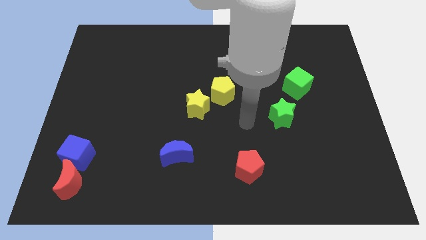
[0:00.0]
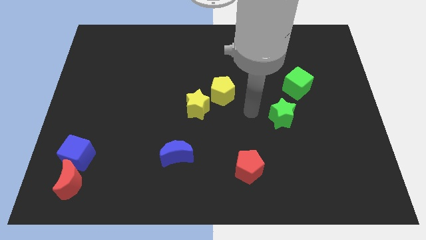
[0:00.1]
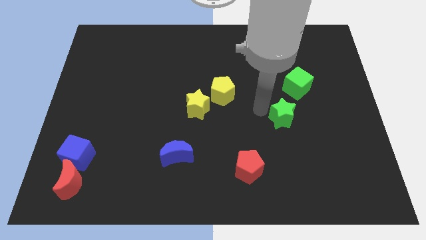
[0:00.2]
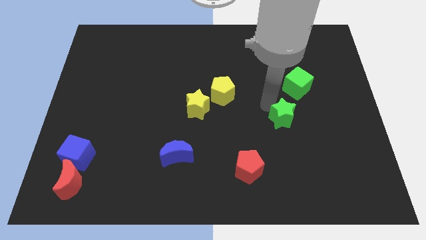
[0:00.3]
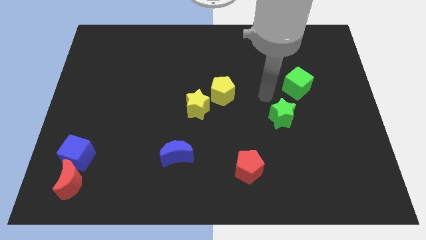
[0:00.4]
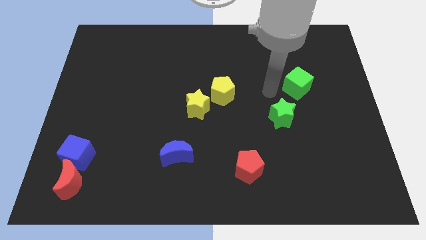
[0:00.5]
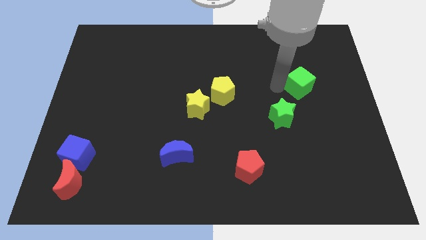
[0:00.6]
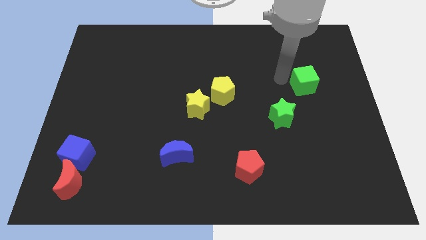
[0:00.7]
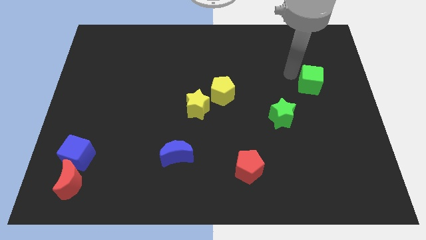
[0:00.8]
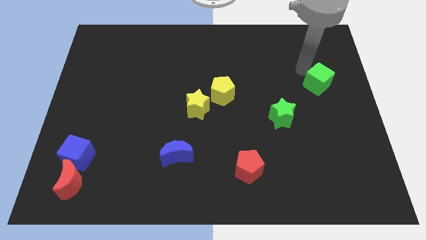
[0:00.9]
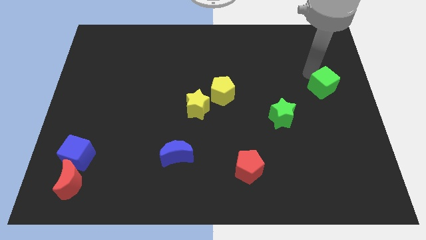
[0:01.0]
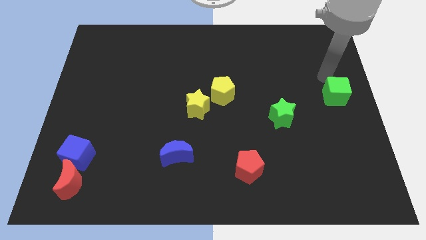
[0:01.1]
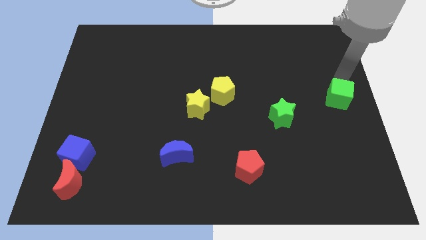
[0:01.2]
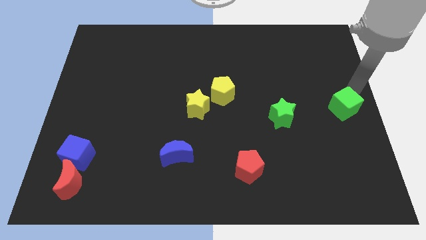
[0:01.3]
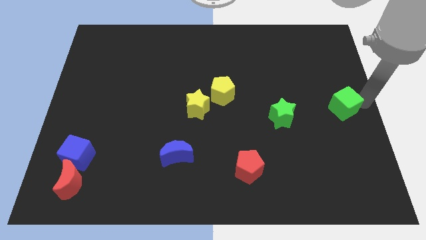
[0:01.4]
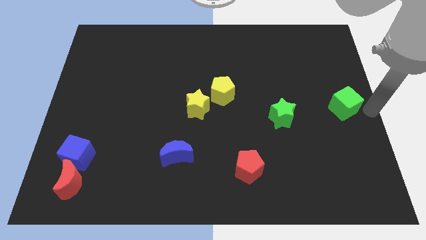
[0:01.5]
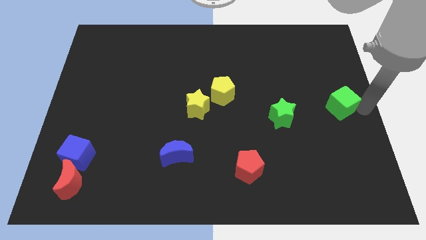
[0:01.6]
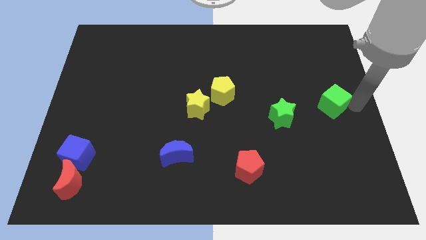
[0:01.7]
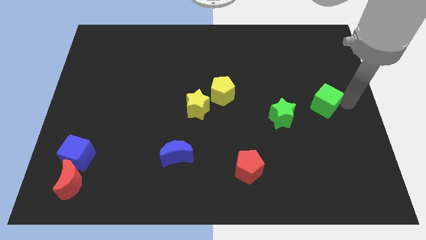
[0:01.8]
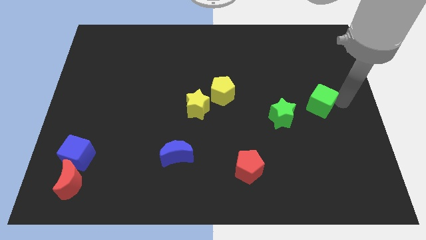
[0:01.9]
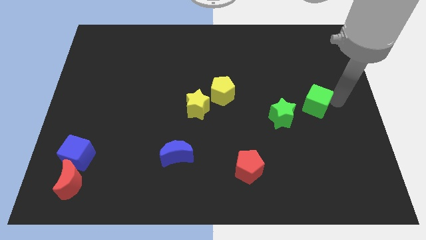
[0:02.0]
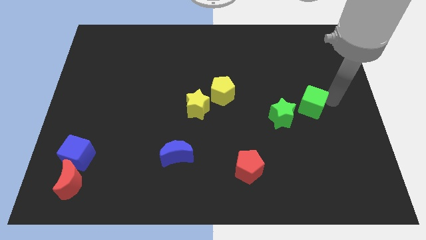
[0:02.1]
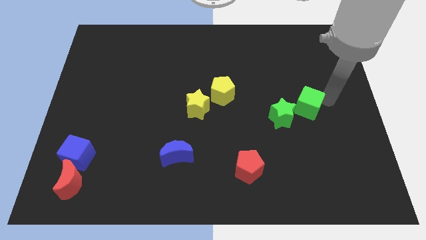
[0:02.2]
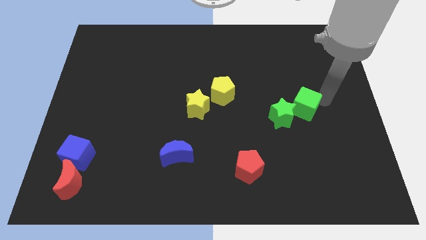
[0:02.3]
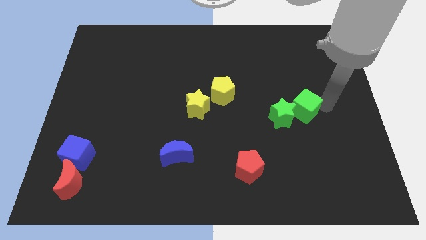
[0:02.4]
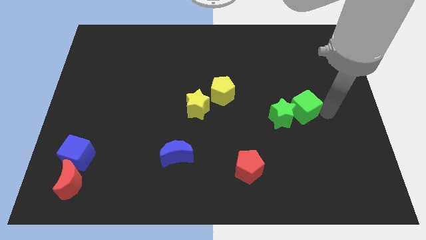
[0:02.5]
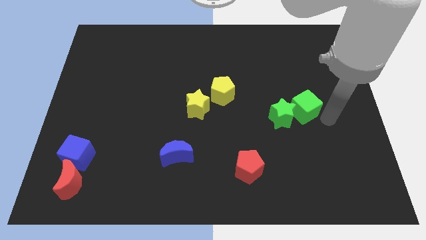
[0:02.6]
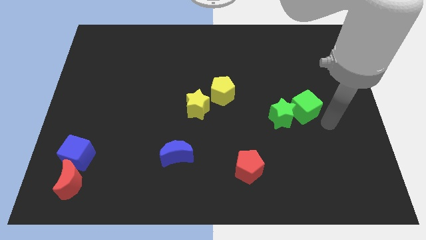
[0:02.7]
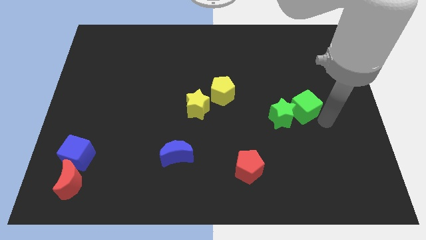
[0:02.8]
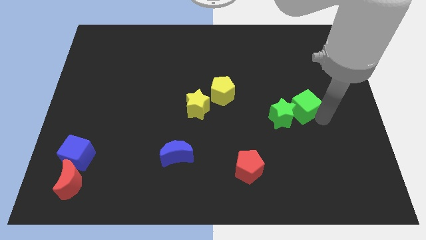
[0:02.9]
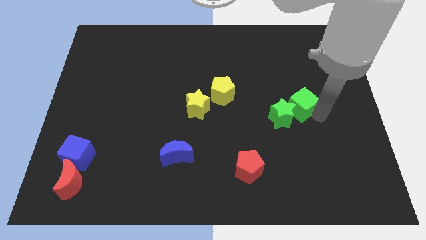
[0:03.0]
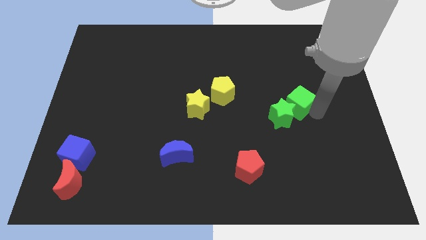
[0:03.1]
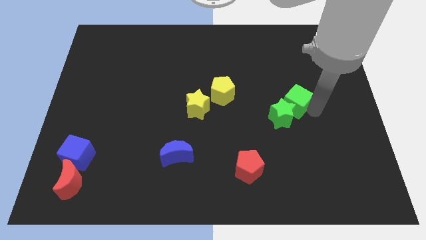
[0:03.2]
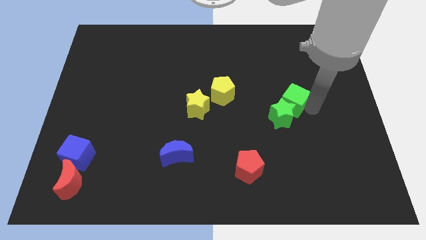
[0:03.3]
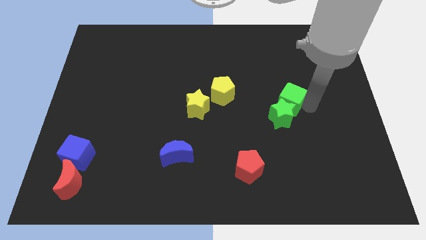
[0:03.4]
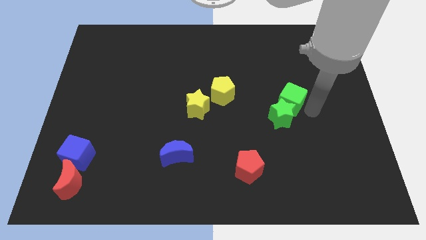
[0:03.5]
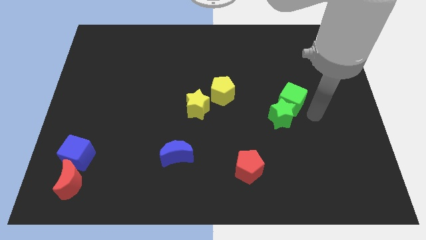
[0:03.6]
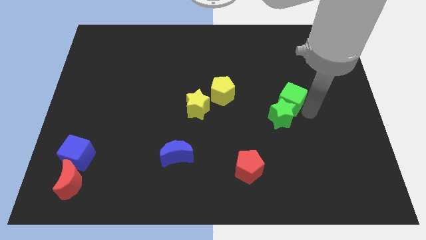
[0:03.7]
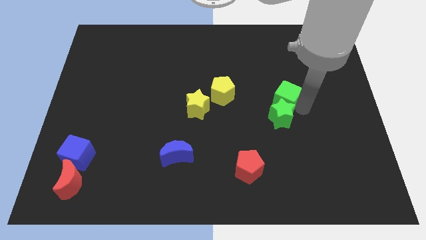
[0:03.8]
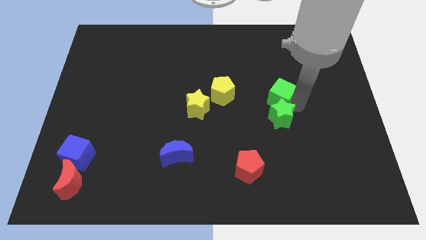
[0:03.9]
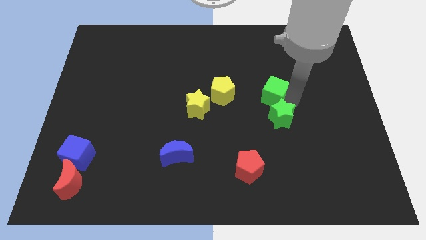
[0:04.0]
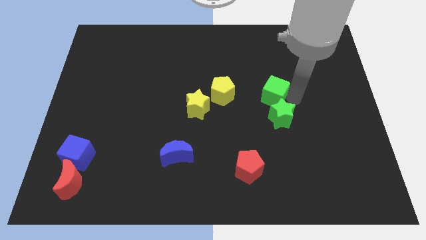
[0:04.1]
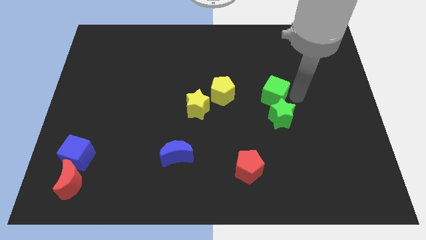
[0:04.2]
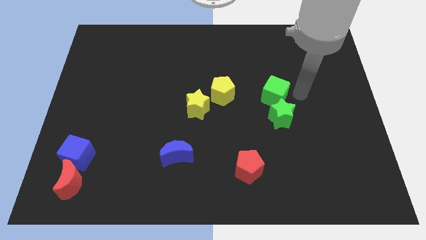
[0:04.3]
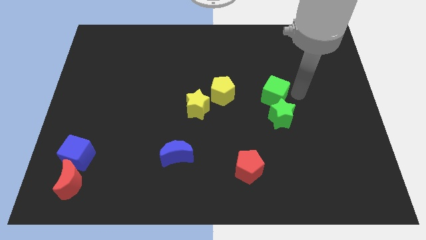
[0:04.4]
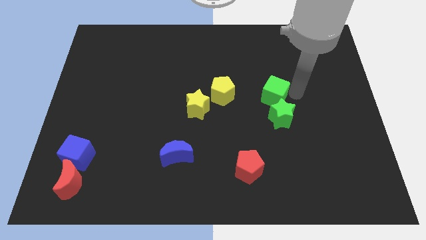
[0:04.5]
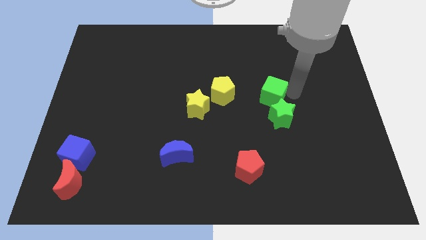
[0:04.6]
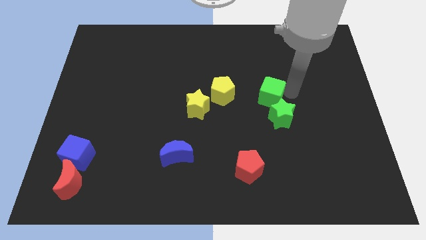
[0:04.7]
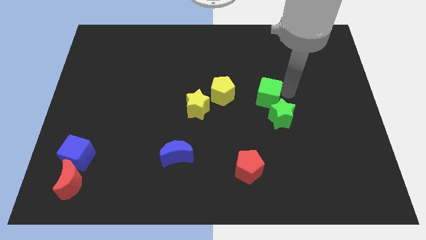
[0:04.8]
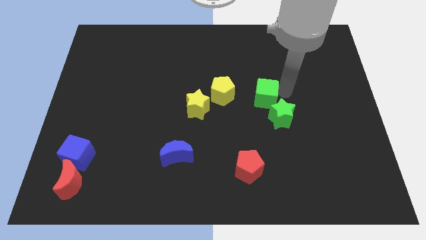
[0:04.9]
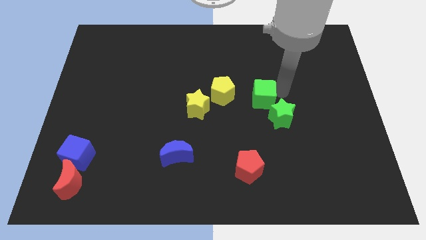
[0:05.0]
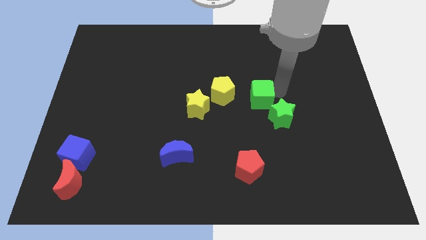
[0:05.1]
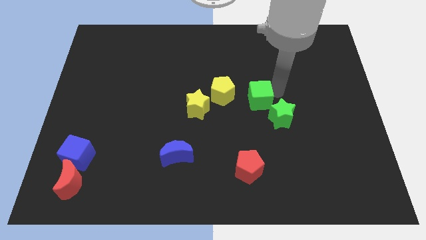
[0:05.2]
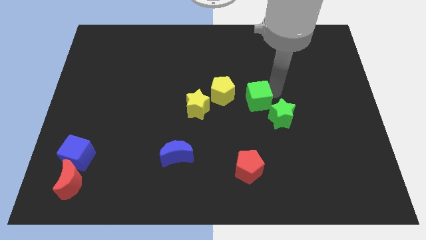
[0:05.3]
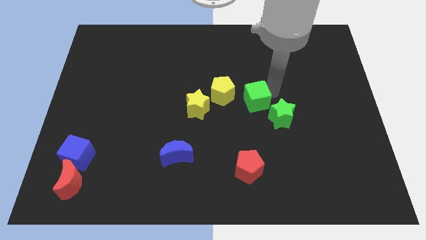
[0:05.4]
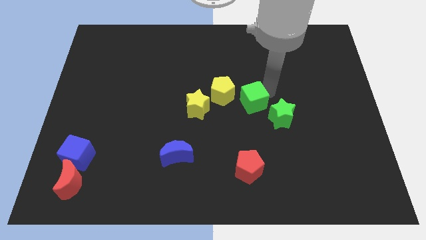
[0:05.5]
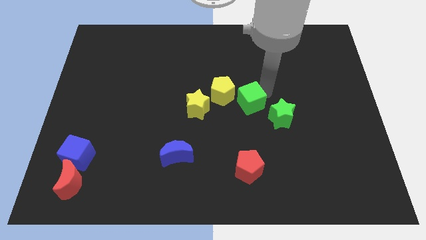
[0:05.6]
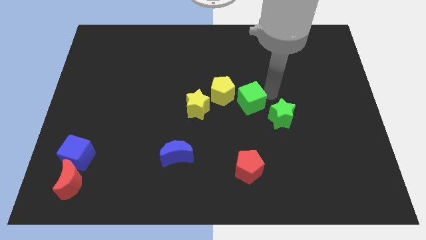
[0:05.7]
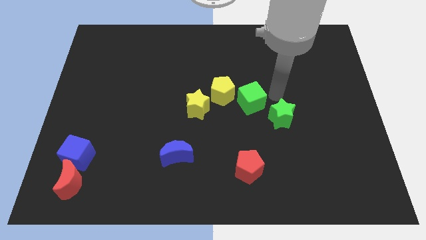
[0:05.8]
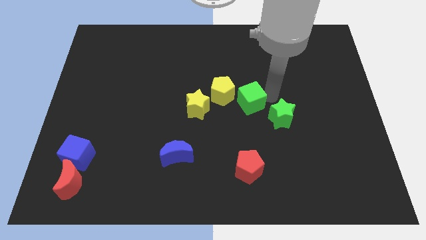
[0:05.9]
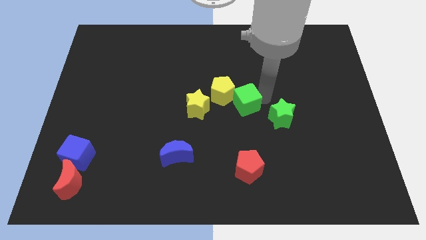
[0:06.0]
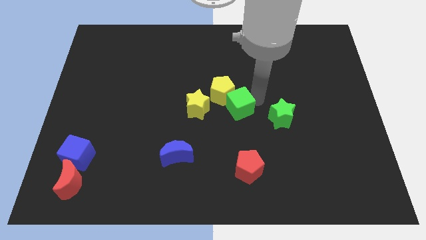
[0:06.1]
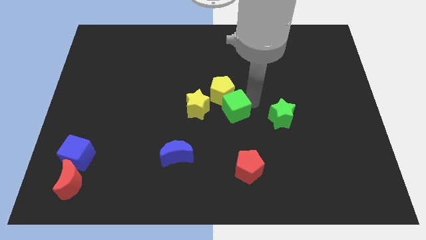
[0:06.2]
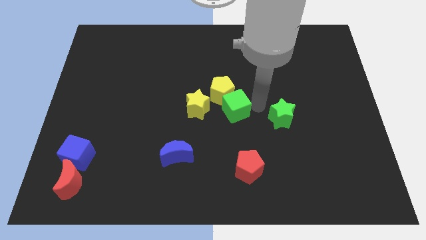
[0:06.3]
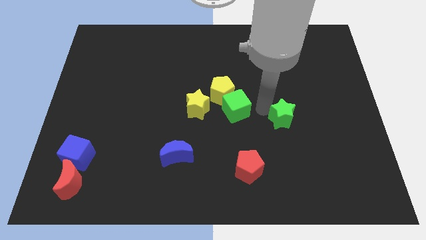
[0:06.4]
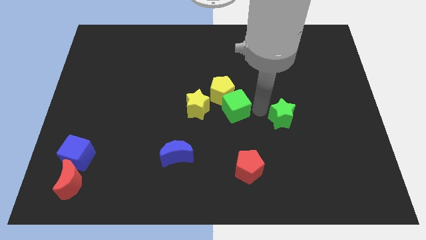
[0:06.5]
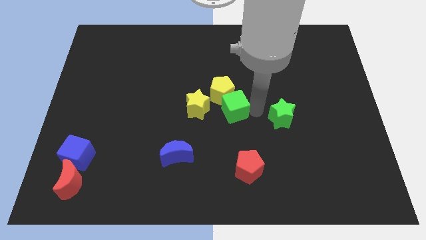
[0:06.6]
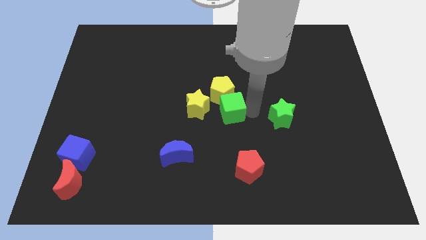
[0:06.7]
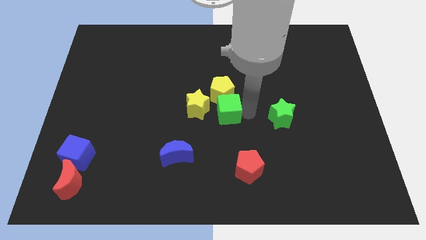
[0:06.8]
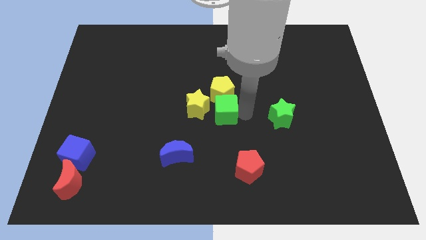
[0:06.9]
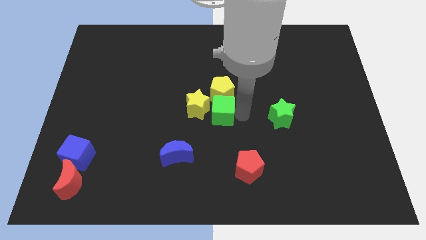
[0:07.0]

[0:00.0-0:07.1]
put the green cube to the yellow star

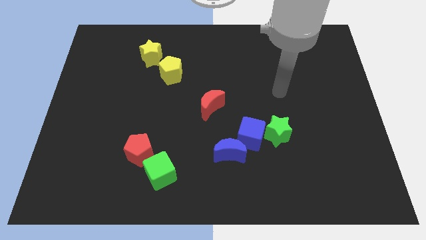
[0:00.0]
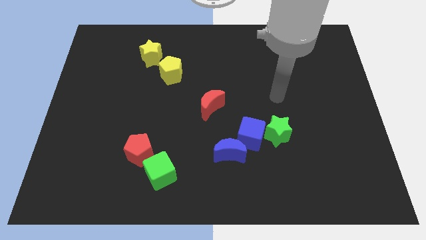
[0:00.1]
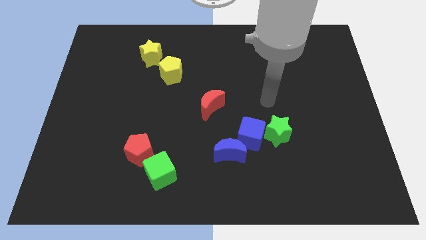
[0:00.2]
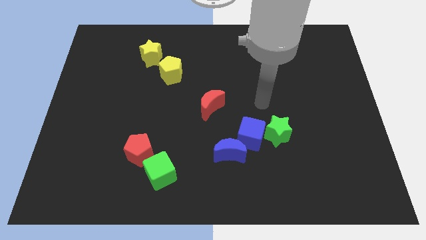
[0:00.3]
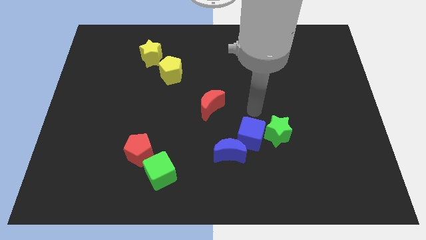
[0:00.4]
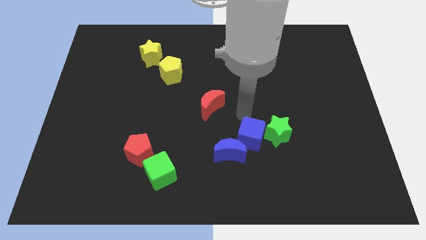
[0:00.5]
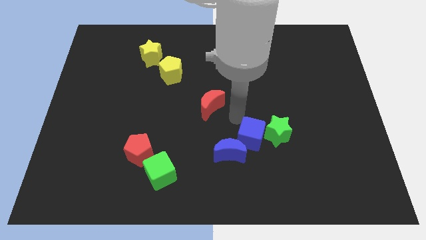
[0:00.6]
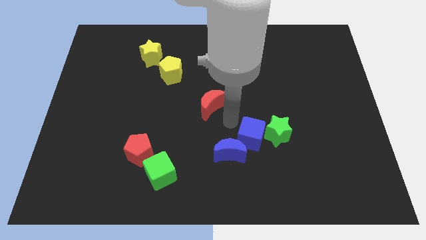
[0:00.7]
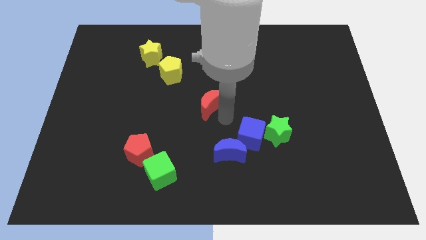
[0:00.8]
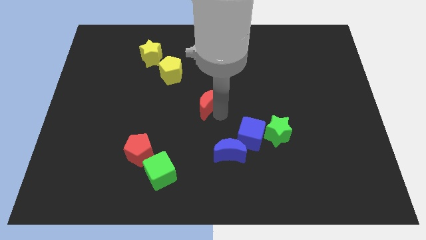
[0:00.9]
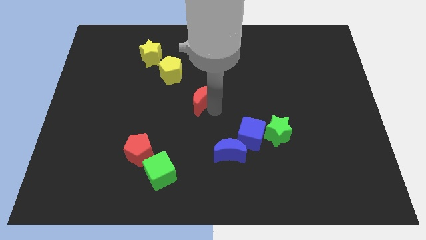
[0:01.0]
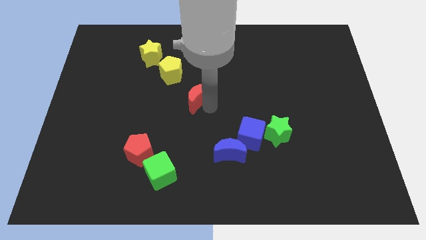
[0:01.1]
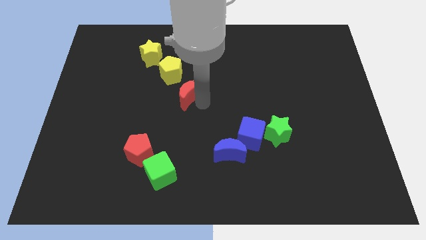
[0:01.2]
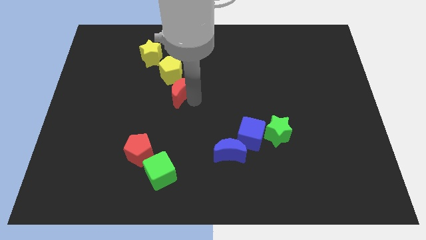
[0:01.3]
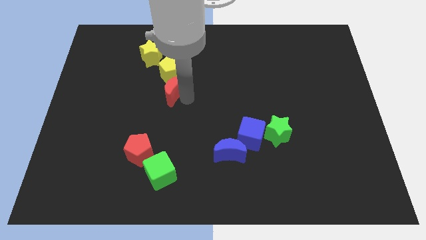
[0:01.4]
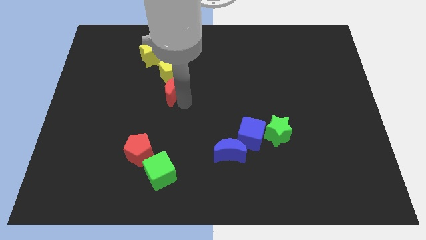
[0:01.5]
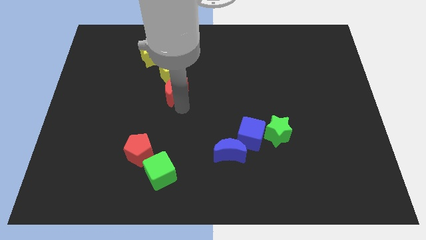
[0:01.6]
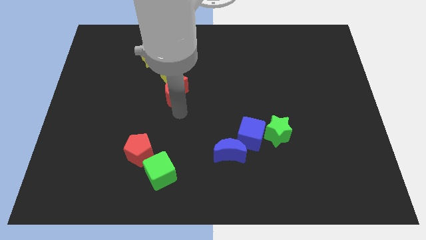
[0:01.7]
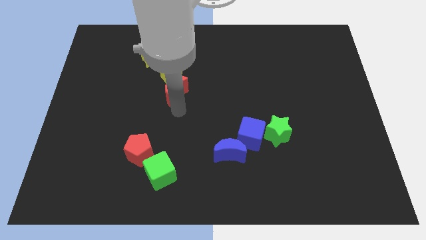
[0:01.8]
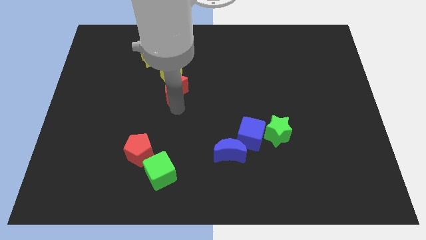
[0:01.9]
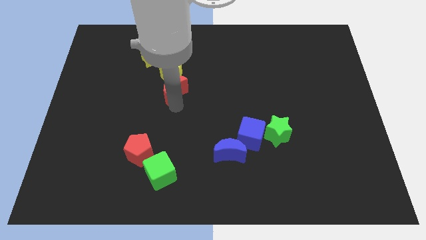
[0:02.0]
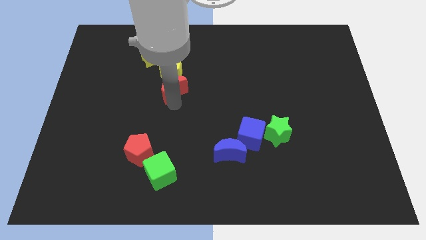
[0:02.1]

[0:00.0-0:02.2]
slide the red moon towards the yellow pentagon
